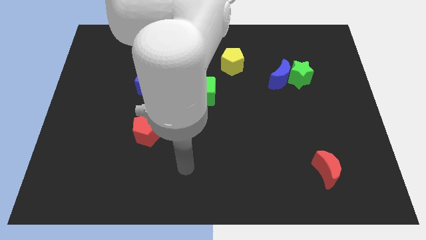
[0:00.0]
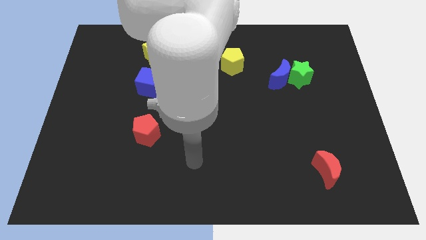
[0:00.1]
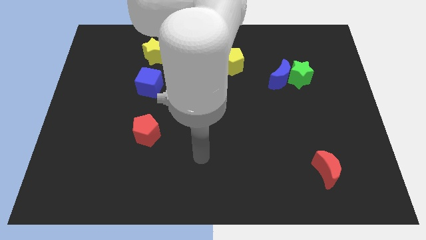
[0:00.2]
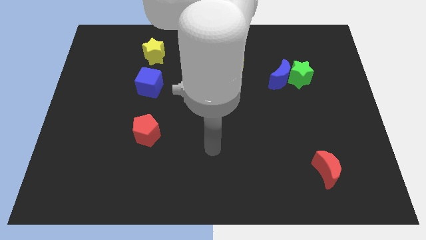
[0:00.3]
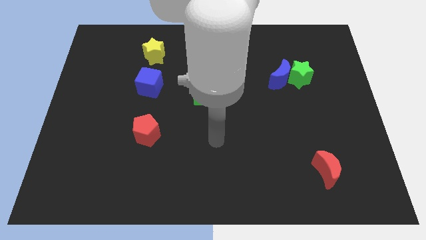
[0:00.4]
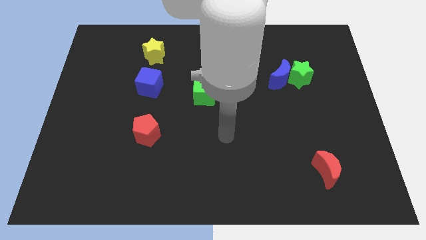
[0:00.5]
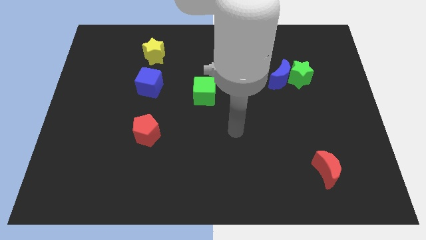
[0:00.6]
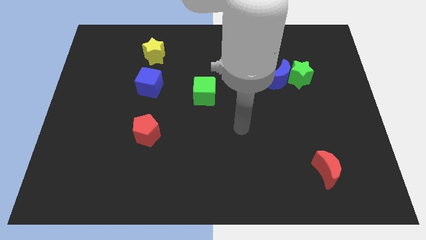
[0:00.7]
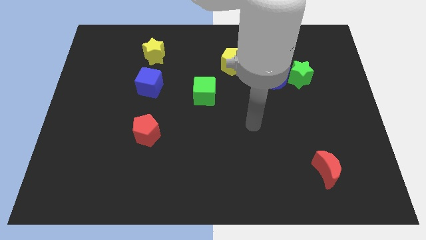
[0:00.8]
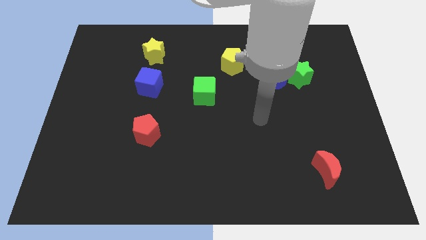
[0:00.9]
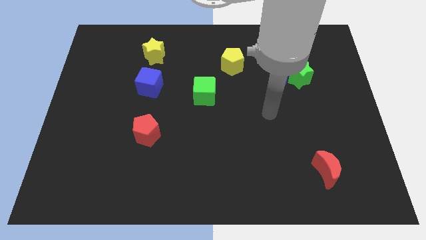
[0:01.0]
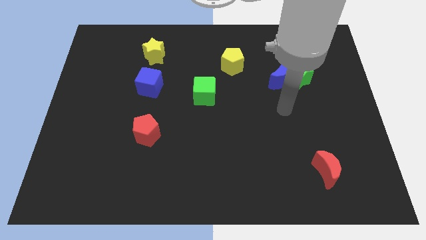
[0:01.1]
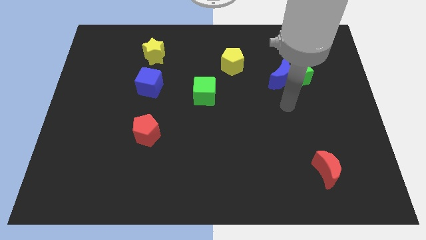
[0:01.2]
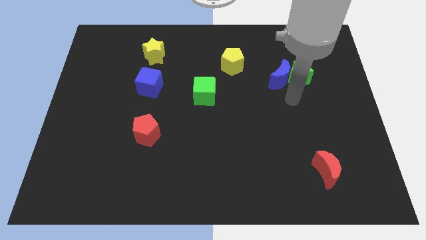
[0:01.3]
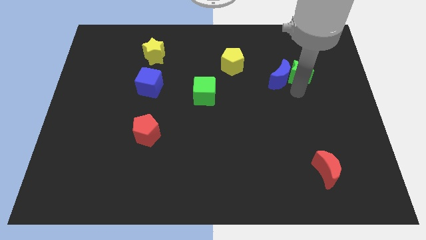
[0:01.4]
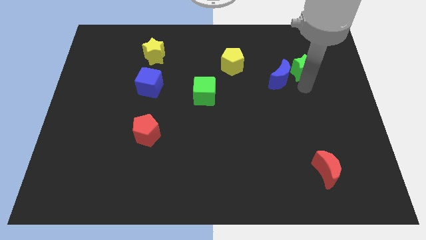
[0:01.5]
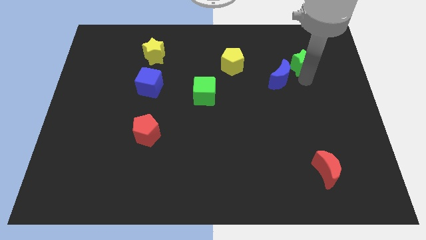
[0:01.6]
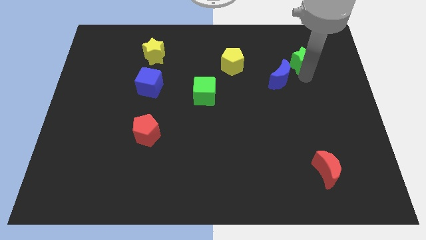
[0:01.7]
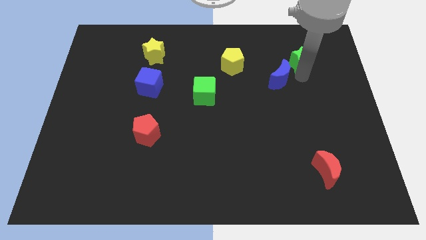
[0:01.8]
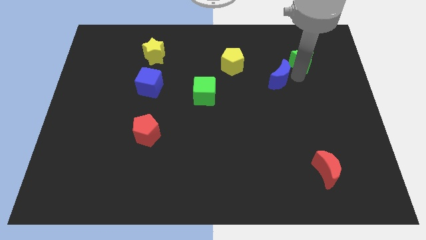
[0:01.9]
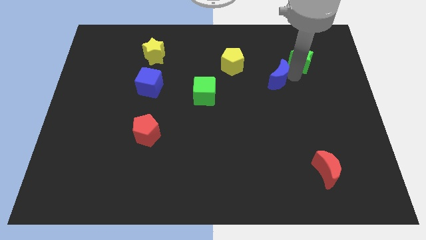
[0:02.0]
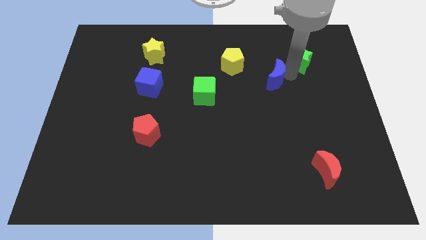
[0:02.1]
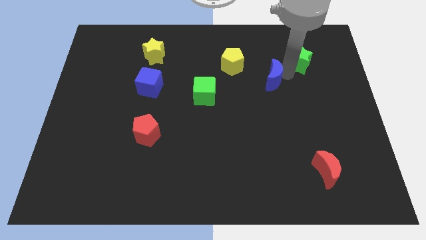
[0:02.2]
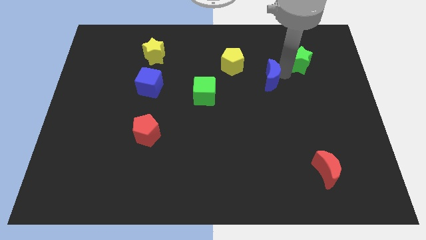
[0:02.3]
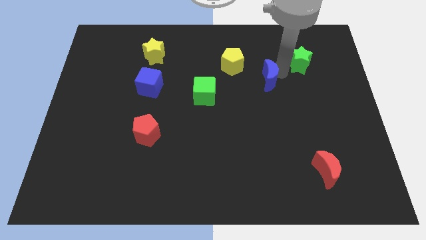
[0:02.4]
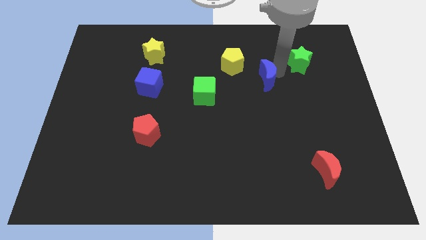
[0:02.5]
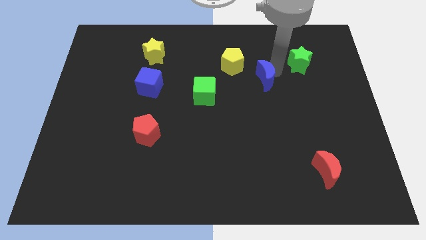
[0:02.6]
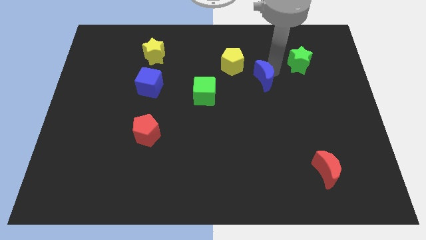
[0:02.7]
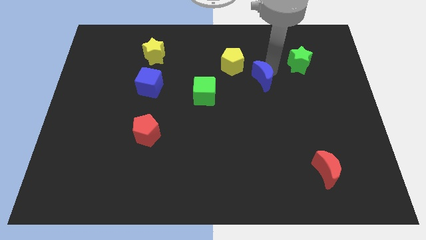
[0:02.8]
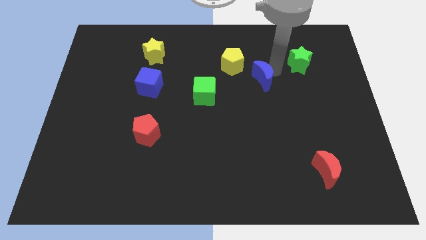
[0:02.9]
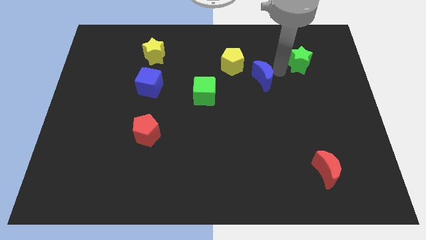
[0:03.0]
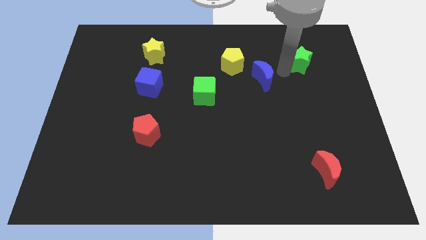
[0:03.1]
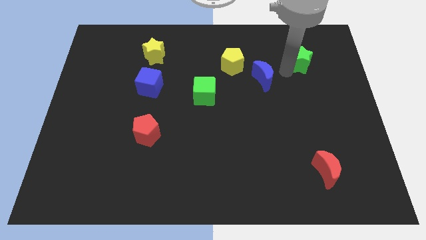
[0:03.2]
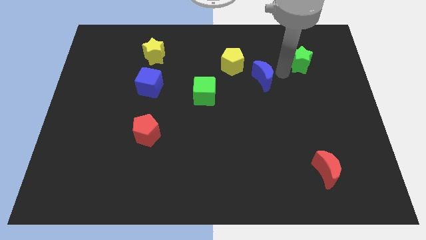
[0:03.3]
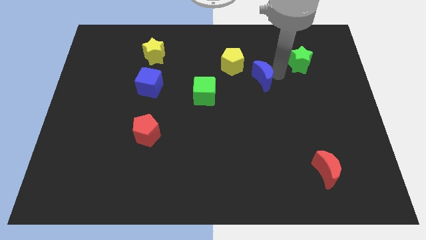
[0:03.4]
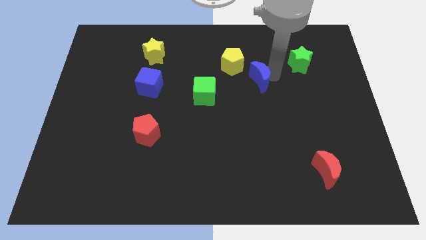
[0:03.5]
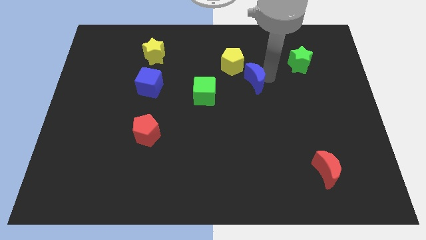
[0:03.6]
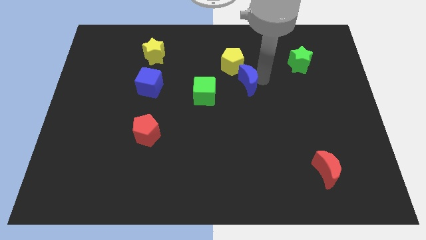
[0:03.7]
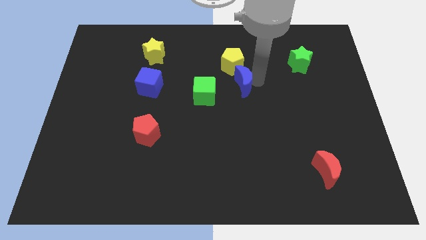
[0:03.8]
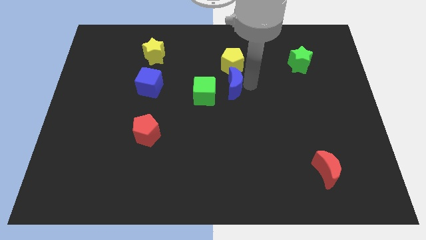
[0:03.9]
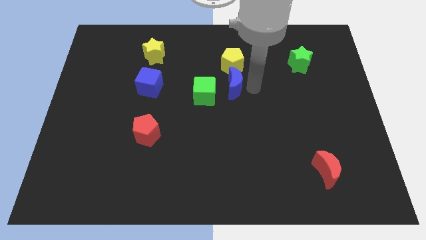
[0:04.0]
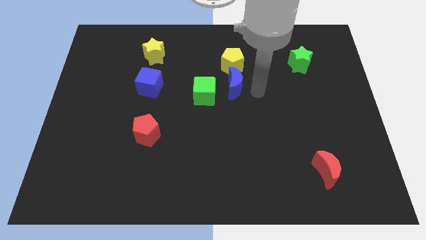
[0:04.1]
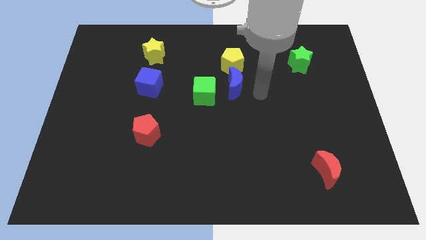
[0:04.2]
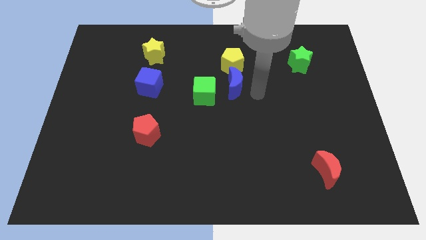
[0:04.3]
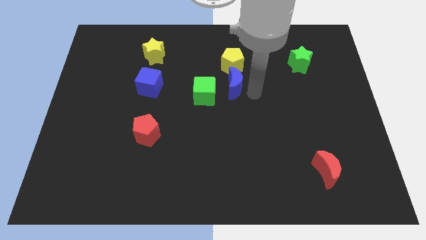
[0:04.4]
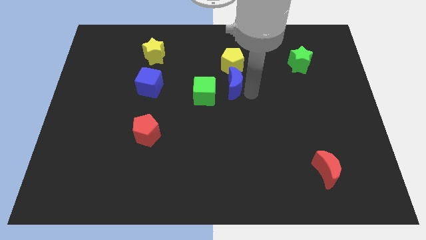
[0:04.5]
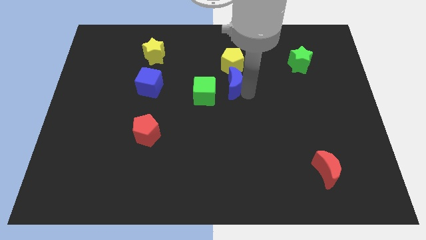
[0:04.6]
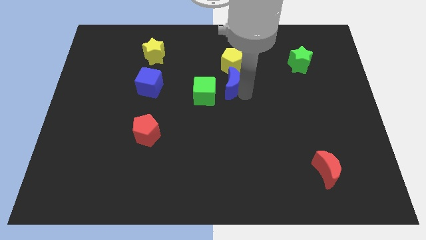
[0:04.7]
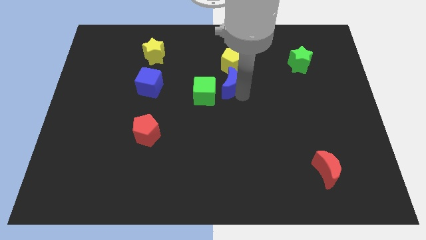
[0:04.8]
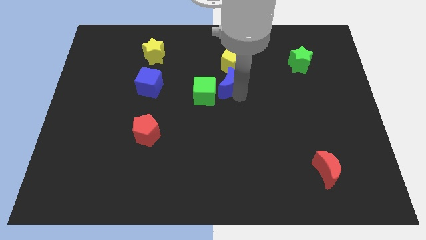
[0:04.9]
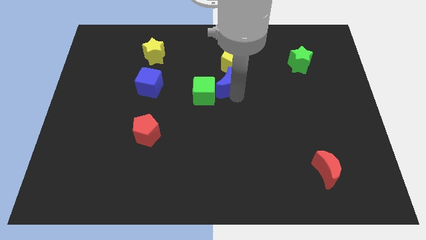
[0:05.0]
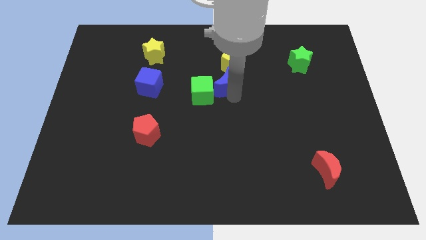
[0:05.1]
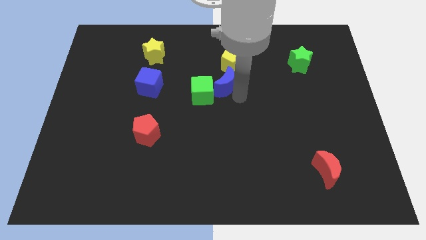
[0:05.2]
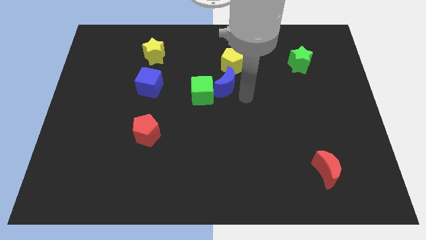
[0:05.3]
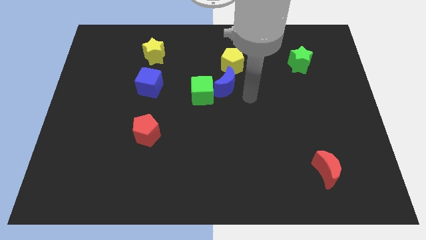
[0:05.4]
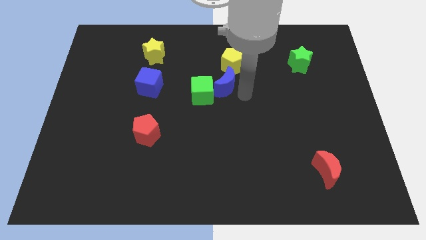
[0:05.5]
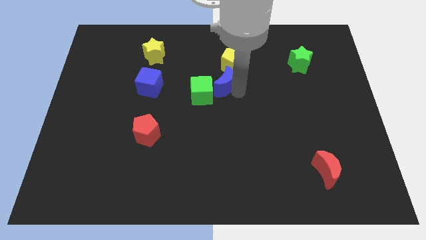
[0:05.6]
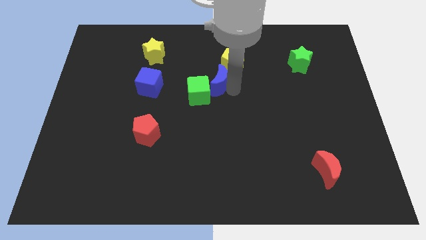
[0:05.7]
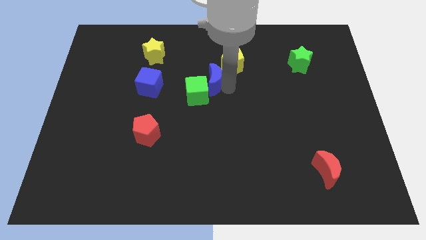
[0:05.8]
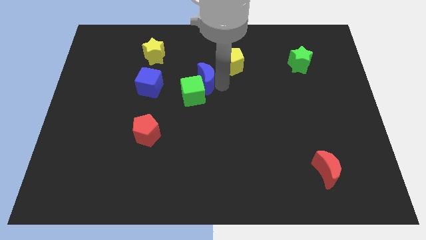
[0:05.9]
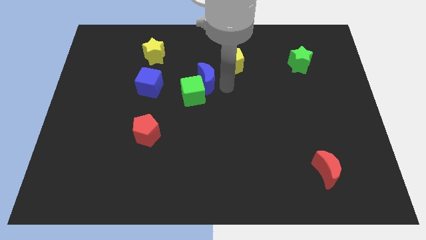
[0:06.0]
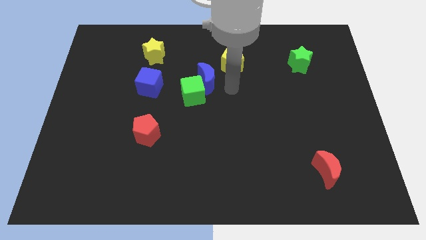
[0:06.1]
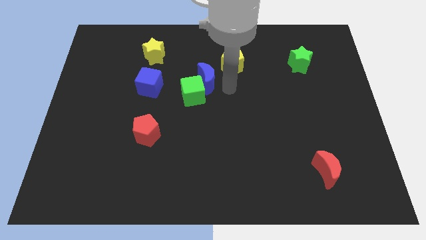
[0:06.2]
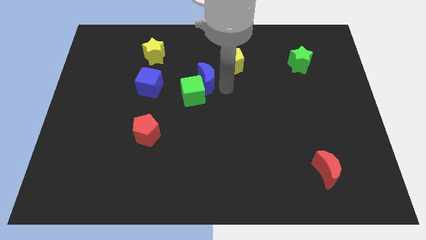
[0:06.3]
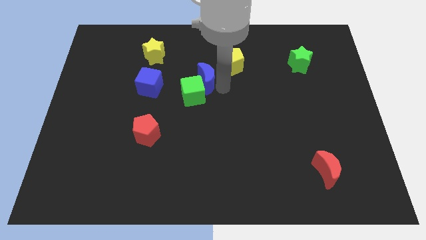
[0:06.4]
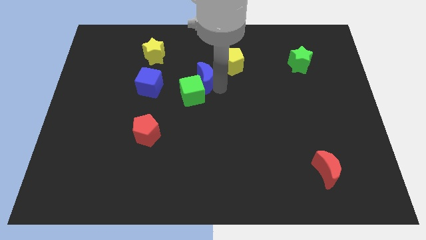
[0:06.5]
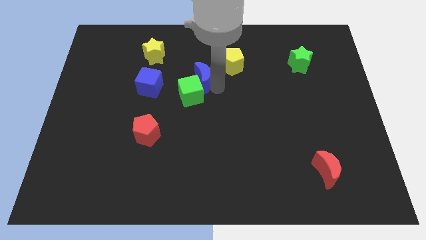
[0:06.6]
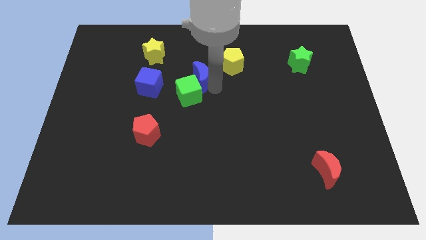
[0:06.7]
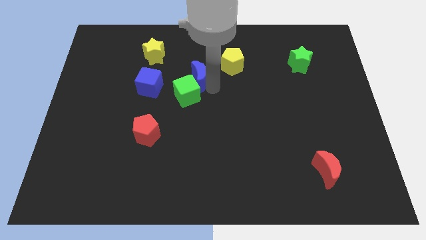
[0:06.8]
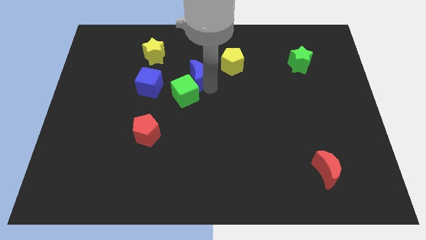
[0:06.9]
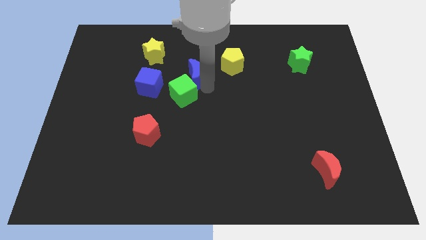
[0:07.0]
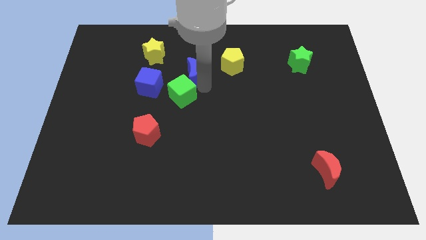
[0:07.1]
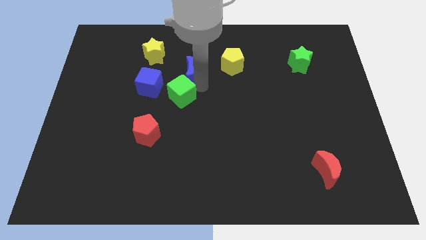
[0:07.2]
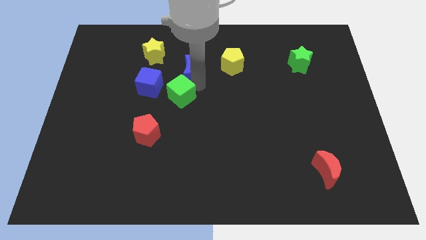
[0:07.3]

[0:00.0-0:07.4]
slide the blue moon to the top right side of the blue cube

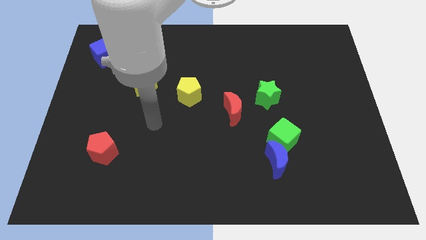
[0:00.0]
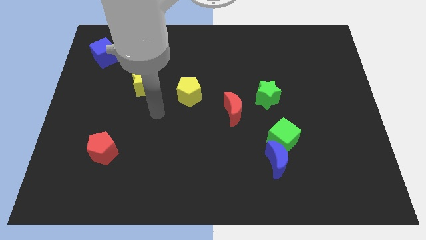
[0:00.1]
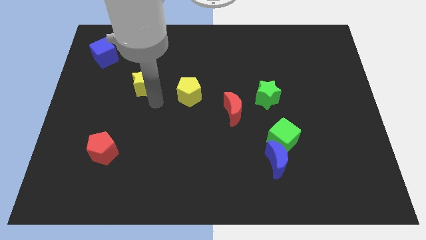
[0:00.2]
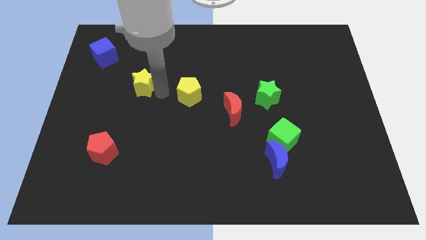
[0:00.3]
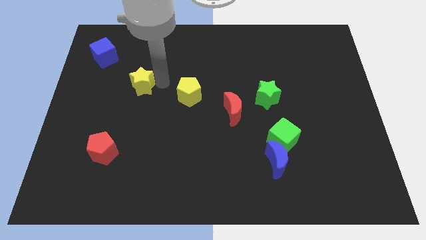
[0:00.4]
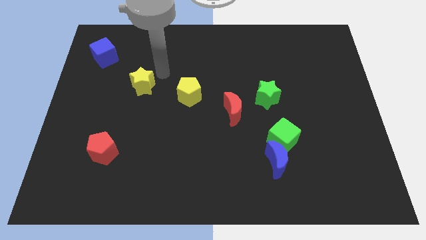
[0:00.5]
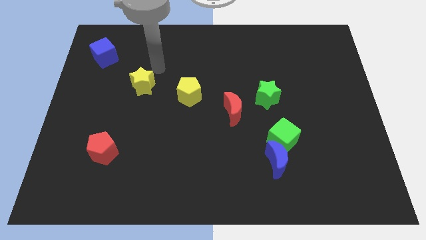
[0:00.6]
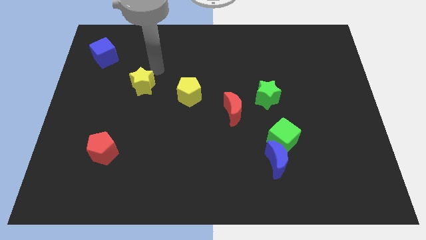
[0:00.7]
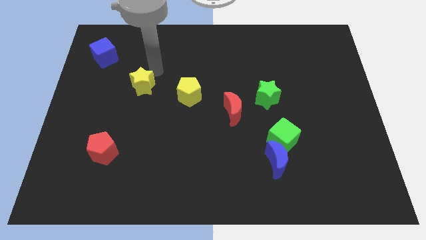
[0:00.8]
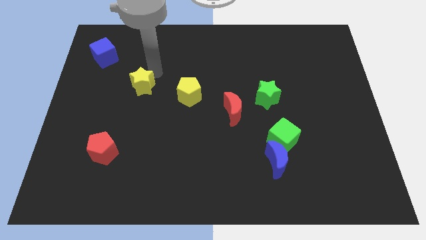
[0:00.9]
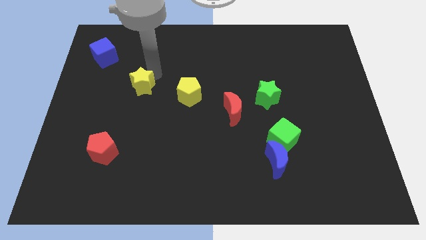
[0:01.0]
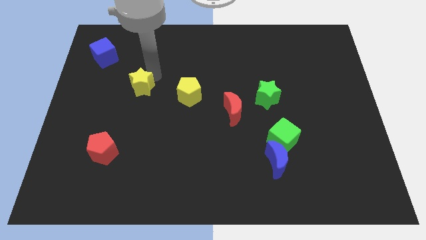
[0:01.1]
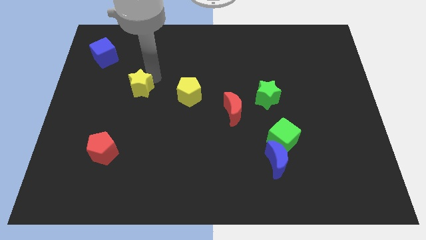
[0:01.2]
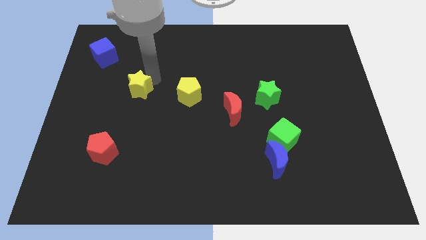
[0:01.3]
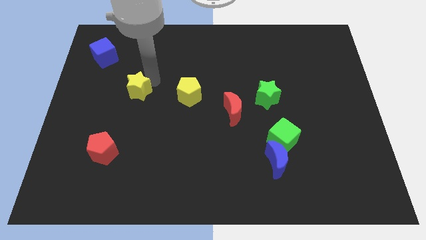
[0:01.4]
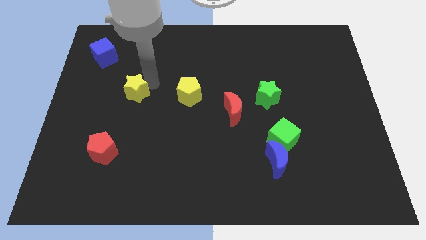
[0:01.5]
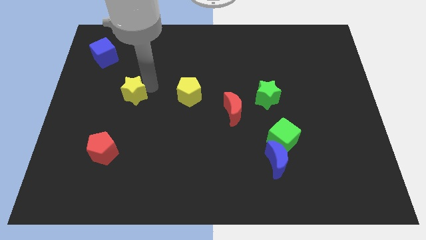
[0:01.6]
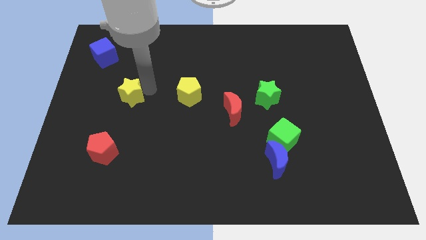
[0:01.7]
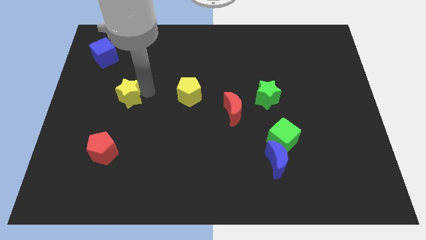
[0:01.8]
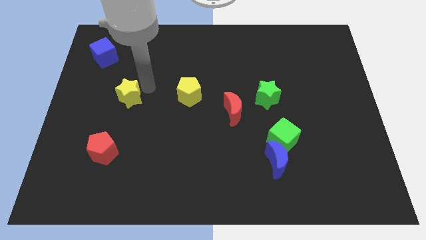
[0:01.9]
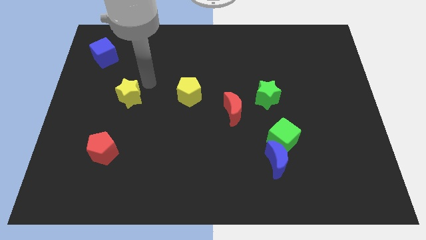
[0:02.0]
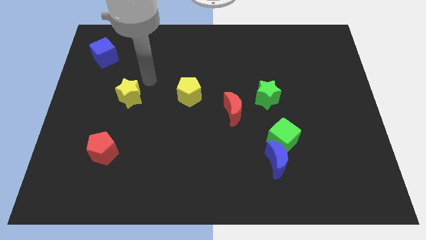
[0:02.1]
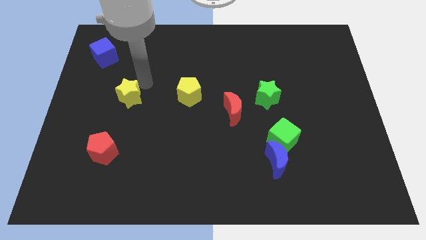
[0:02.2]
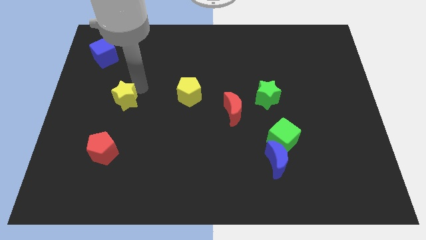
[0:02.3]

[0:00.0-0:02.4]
slide the yellow star to the top side of the red pentagon
